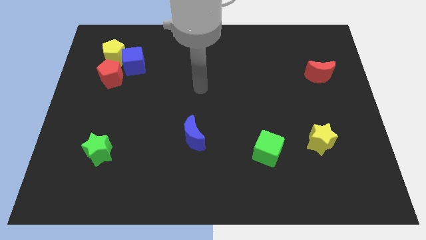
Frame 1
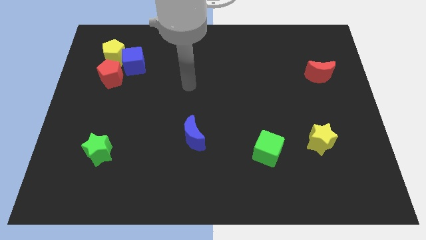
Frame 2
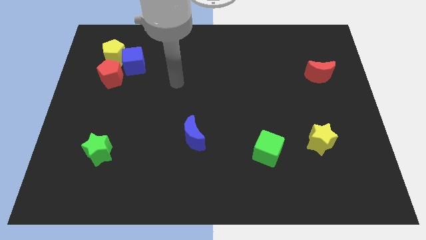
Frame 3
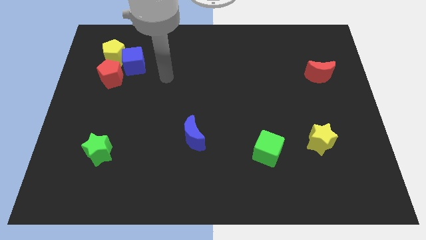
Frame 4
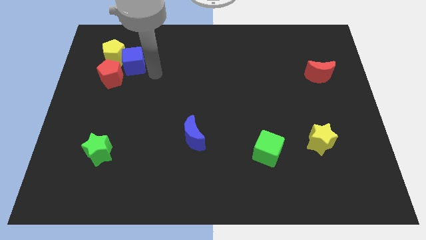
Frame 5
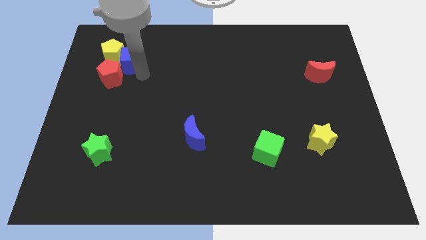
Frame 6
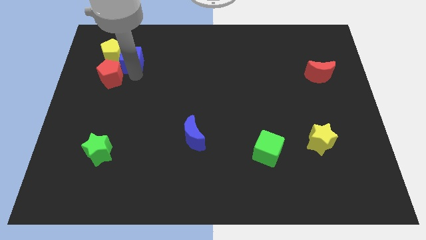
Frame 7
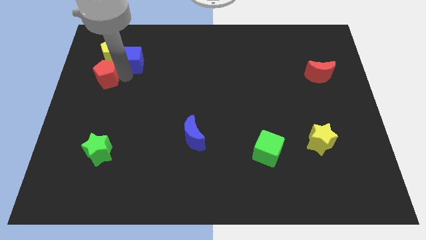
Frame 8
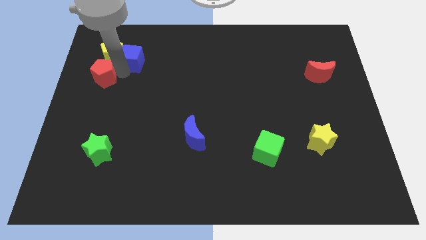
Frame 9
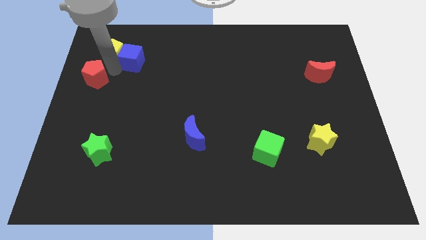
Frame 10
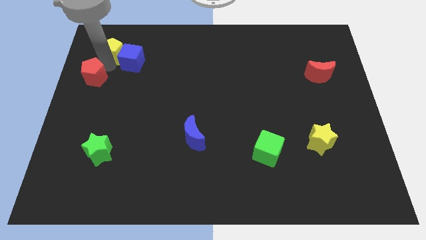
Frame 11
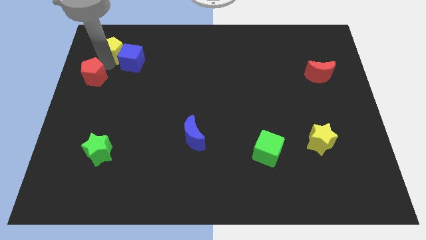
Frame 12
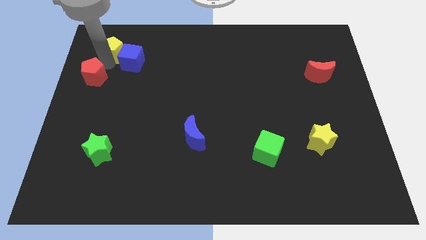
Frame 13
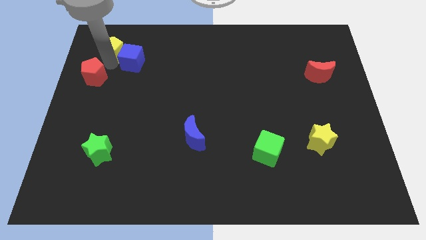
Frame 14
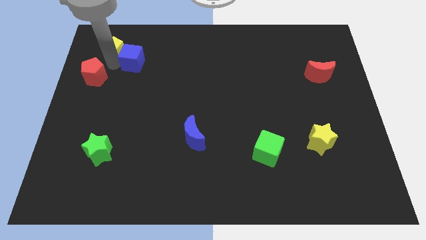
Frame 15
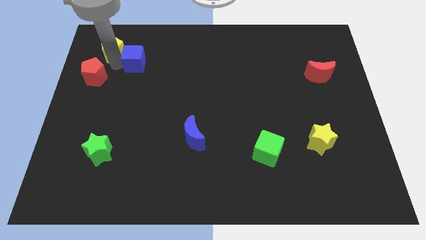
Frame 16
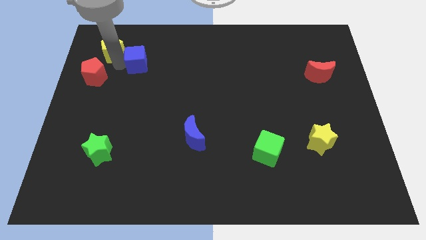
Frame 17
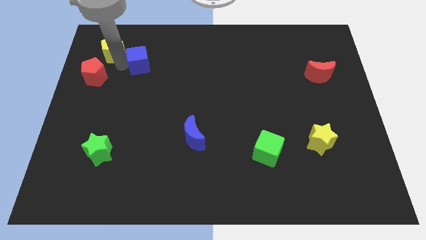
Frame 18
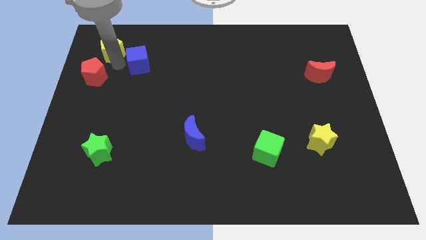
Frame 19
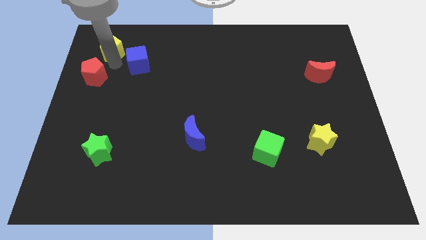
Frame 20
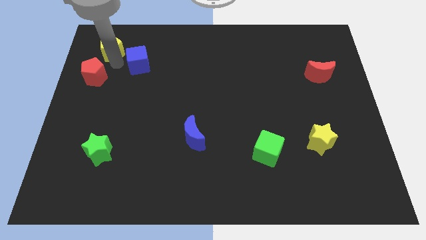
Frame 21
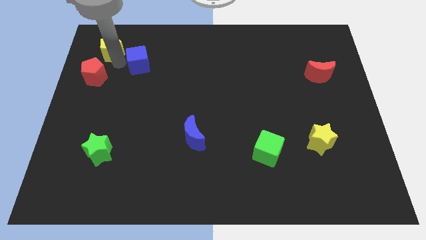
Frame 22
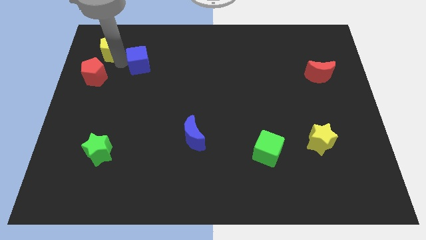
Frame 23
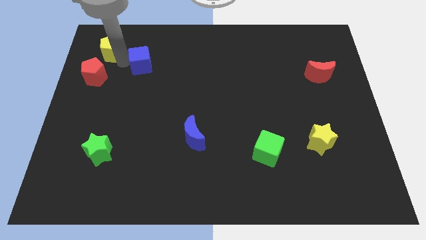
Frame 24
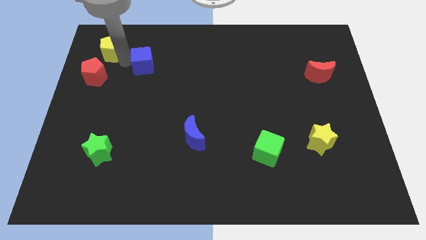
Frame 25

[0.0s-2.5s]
pull the blue cube apart from the yellow pentagon and red pentagon

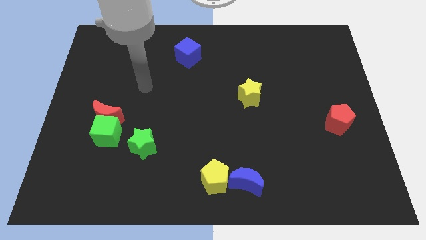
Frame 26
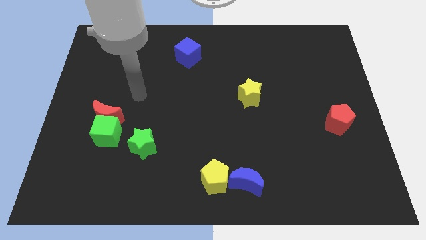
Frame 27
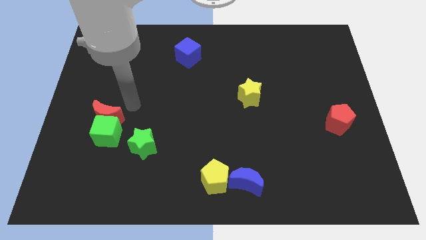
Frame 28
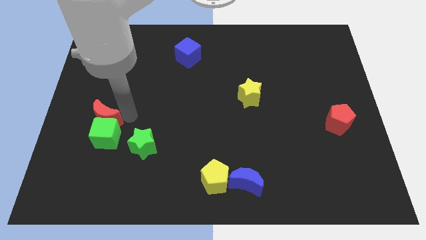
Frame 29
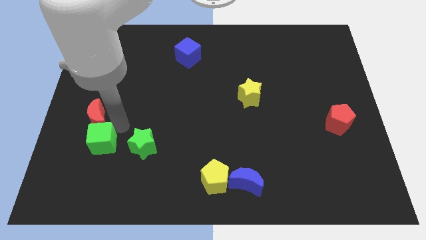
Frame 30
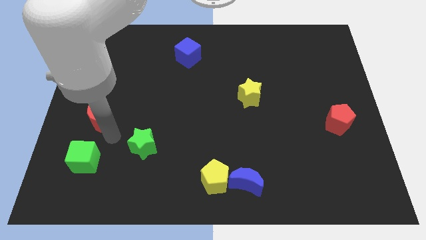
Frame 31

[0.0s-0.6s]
separate the red moon from the green cube

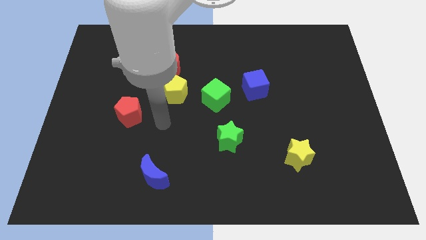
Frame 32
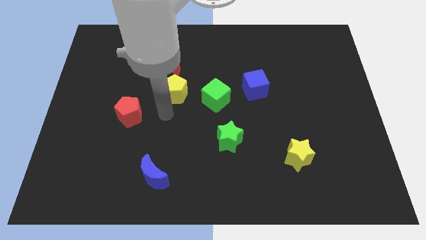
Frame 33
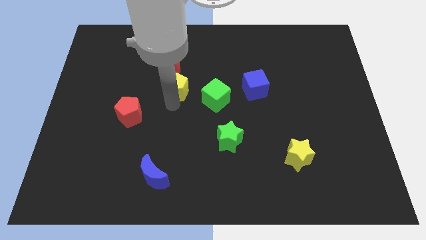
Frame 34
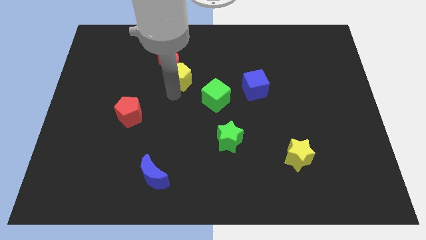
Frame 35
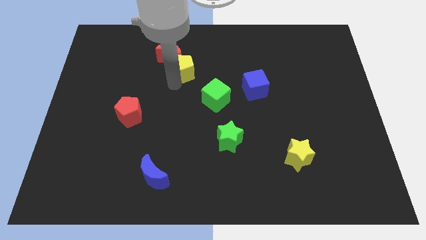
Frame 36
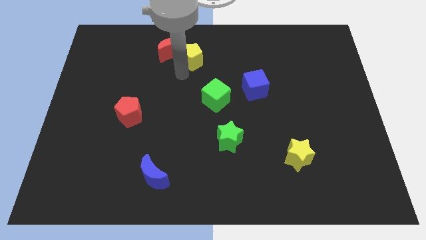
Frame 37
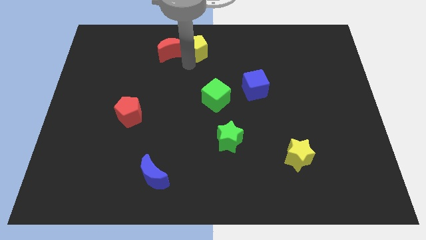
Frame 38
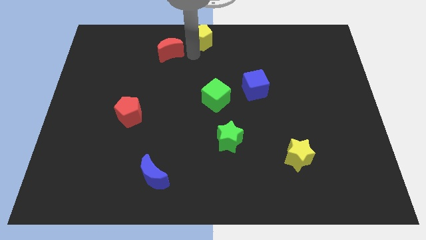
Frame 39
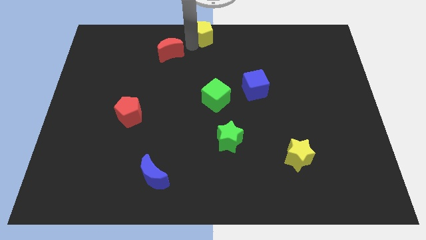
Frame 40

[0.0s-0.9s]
move the red moon away from the yellow pentagon

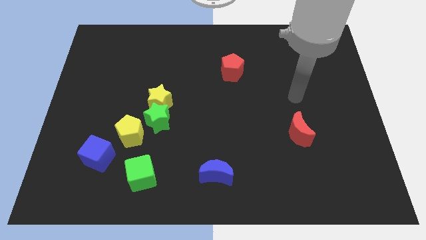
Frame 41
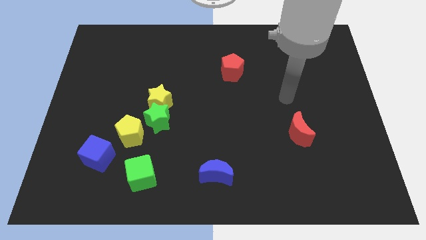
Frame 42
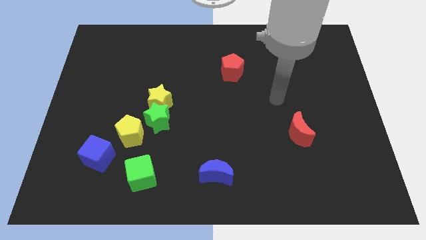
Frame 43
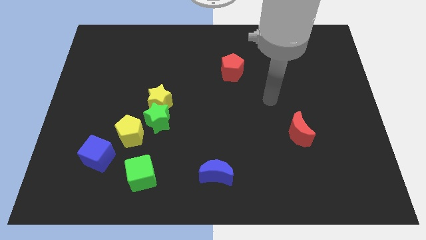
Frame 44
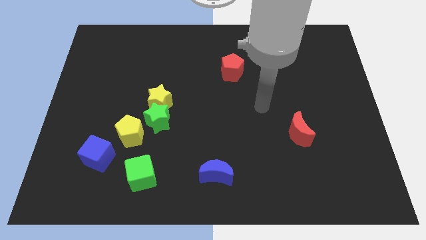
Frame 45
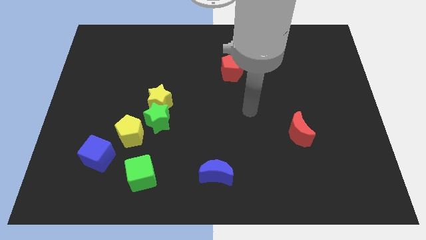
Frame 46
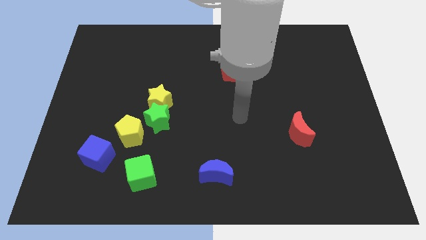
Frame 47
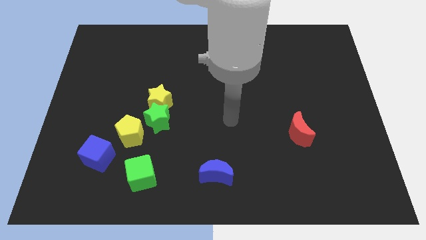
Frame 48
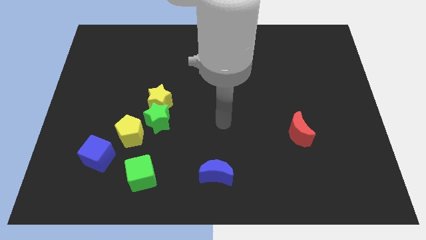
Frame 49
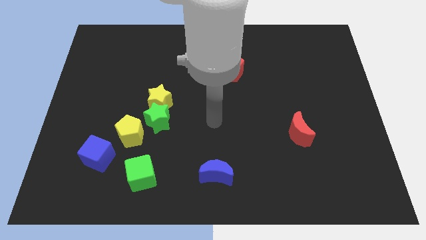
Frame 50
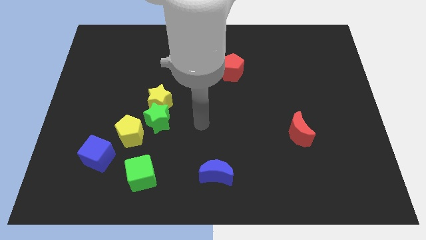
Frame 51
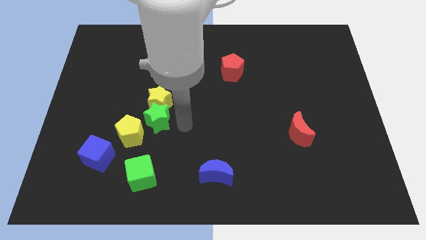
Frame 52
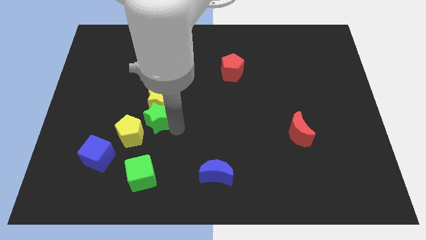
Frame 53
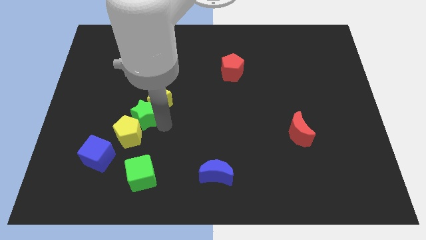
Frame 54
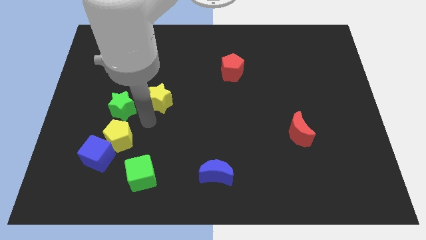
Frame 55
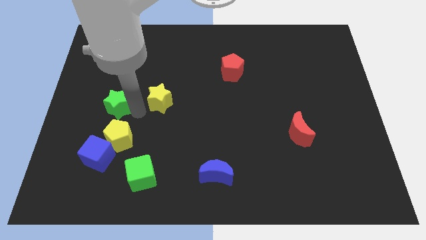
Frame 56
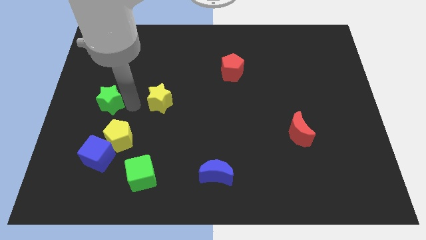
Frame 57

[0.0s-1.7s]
move the yellow star away from the green star

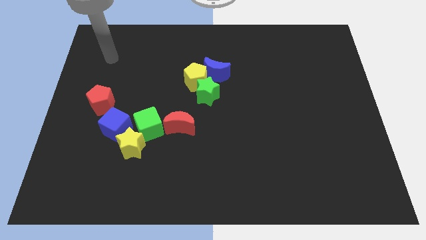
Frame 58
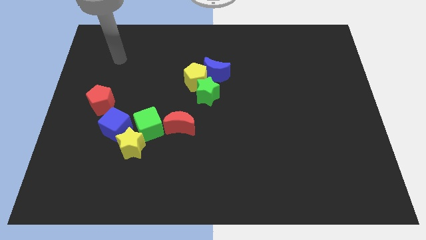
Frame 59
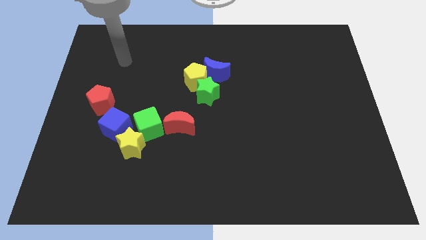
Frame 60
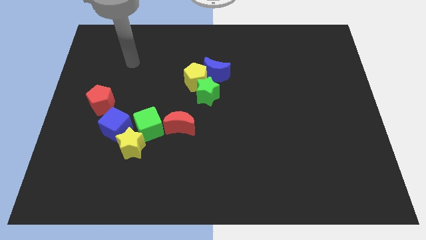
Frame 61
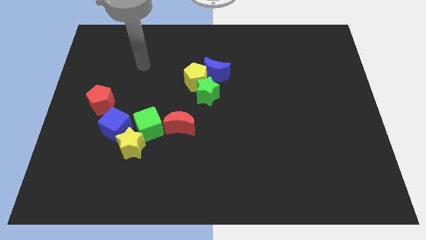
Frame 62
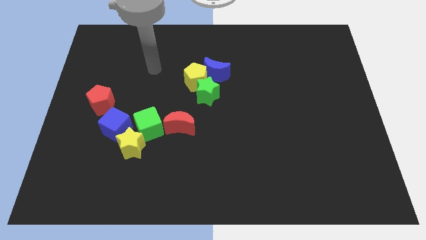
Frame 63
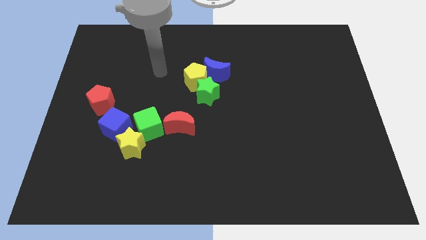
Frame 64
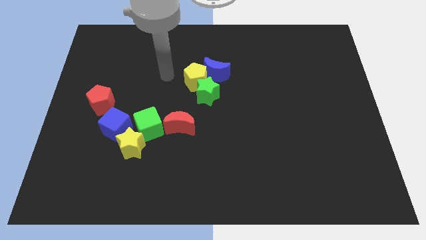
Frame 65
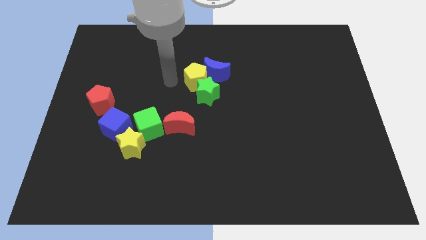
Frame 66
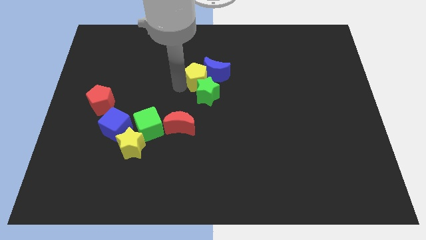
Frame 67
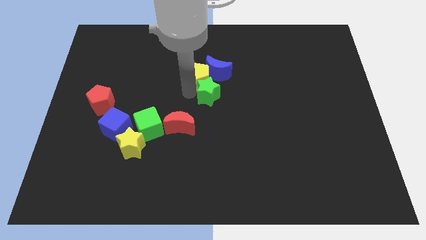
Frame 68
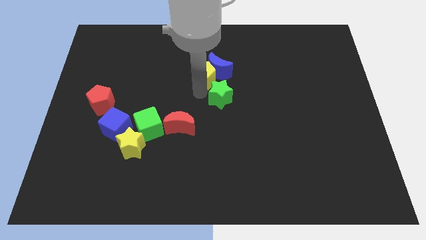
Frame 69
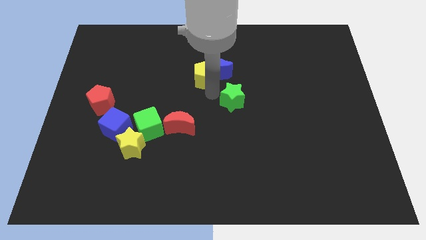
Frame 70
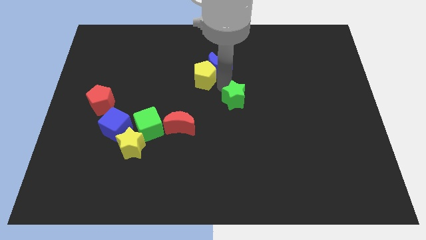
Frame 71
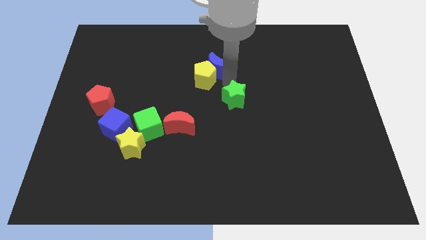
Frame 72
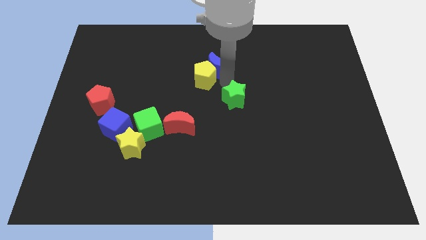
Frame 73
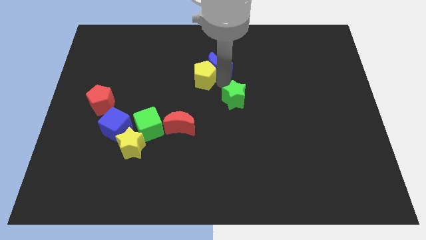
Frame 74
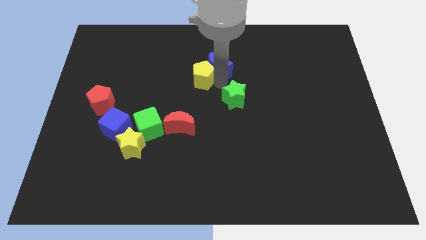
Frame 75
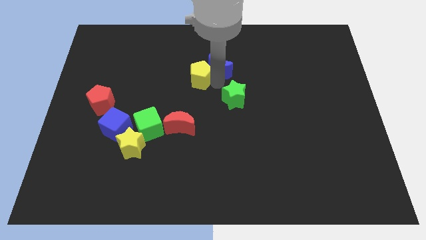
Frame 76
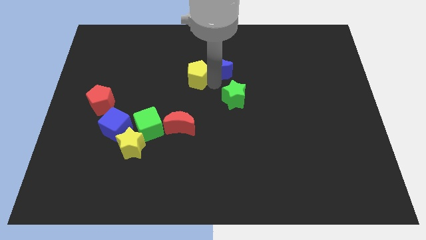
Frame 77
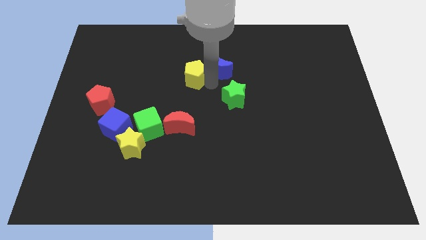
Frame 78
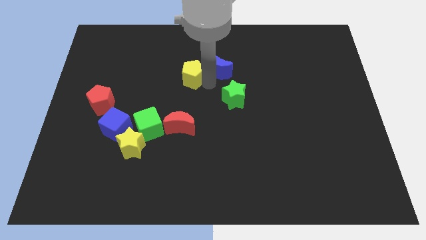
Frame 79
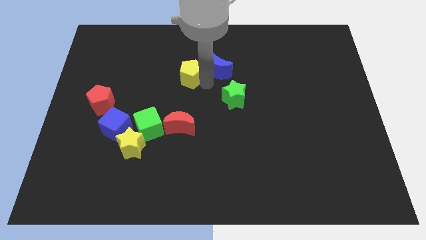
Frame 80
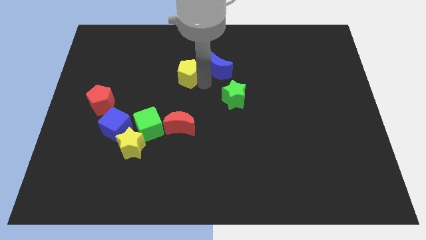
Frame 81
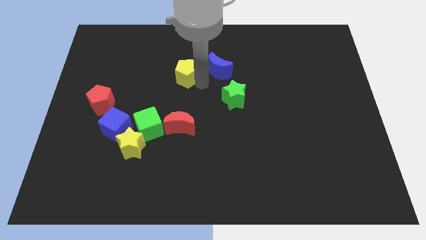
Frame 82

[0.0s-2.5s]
separate the yellow pentagon from the blue moon and green star

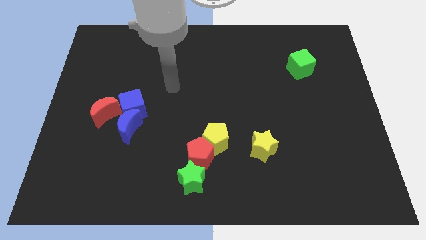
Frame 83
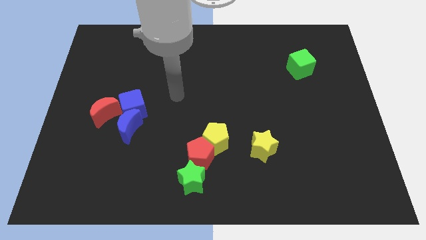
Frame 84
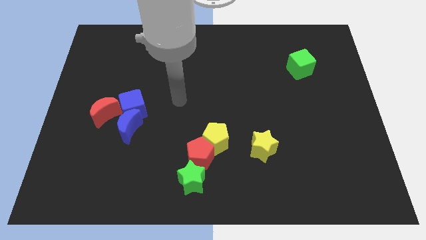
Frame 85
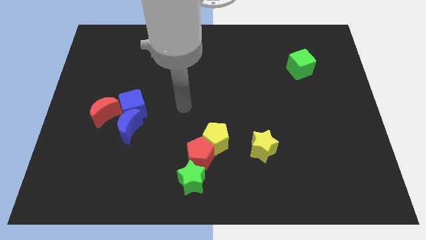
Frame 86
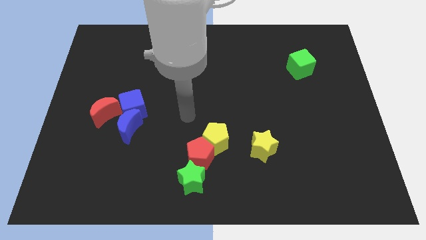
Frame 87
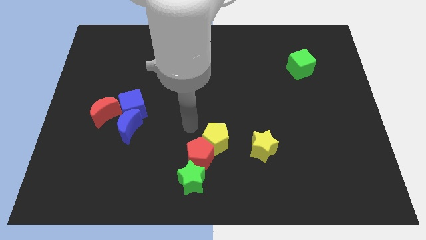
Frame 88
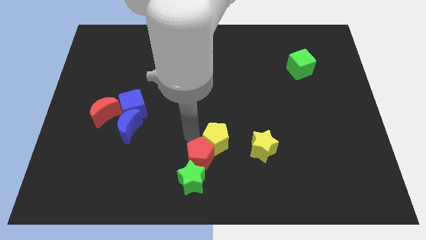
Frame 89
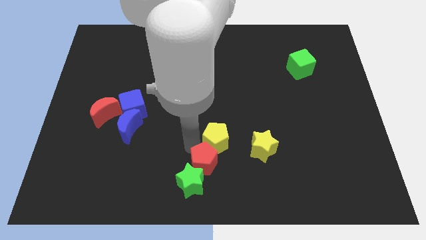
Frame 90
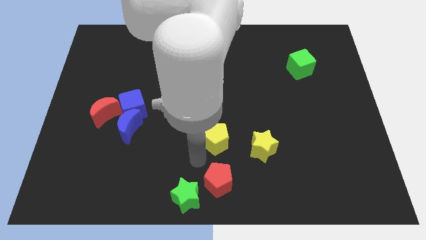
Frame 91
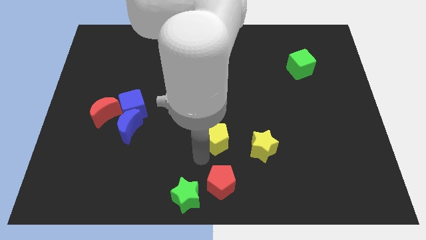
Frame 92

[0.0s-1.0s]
pull the yellow pentagon apart from the red pentagon
